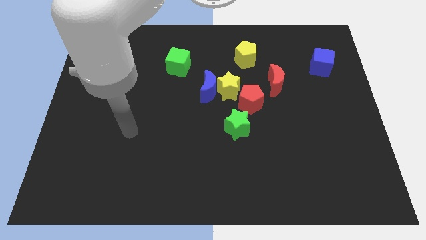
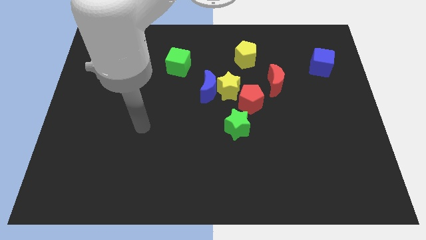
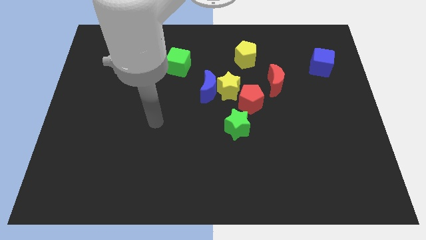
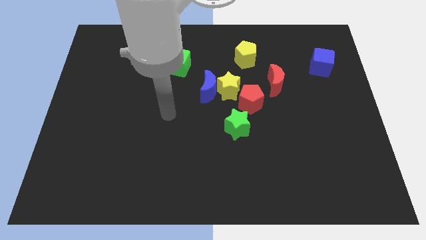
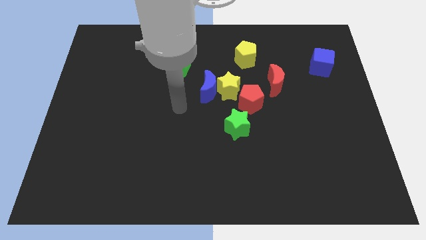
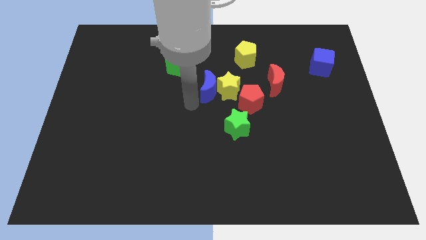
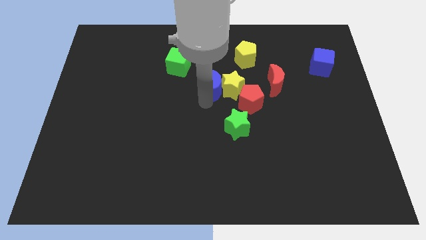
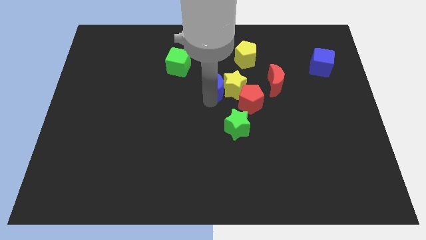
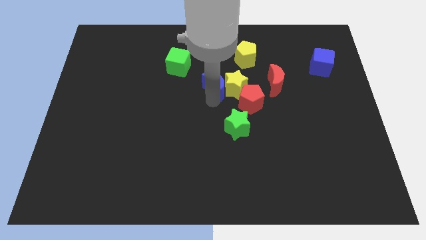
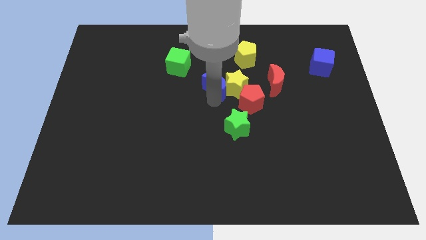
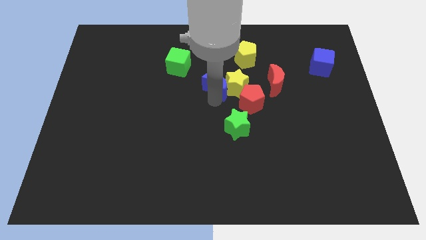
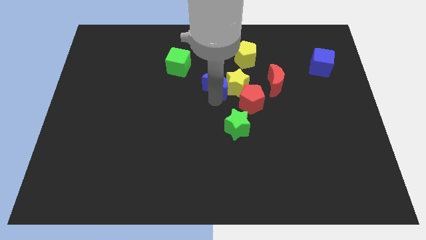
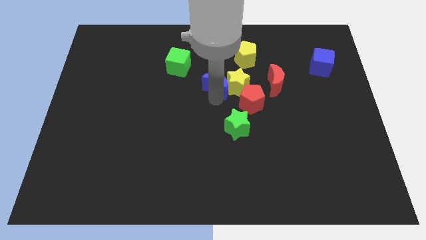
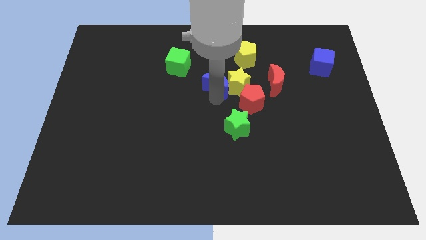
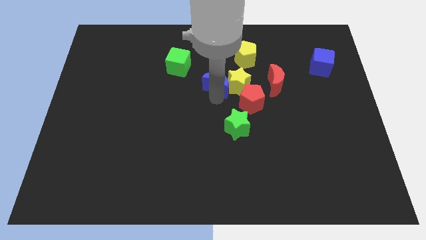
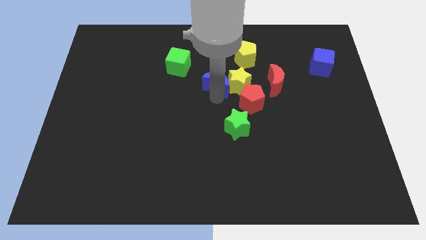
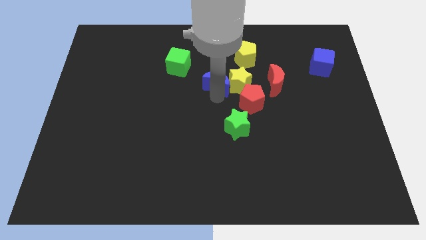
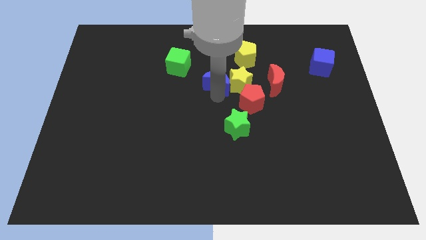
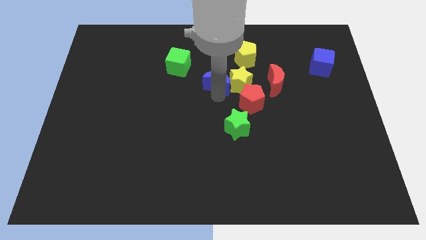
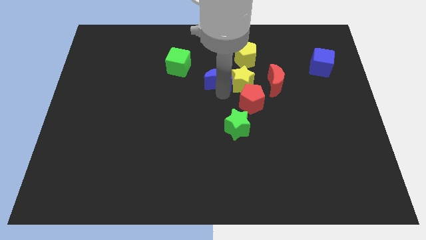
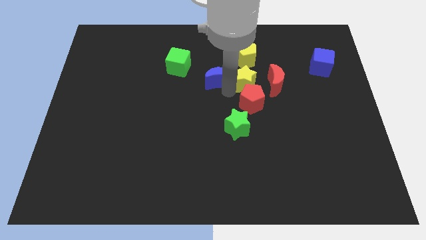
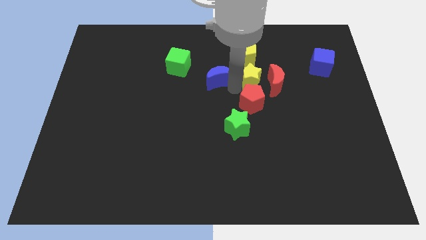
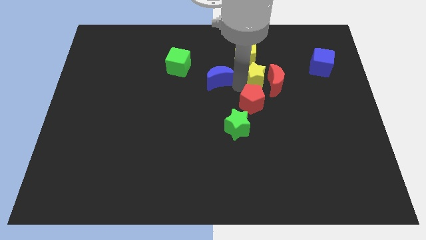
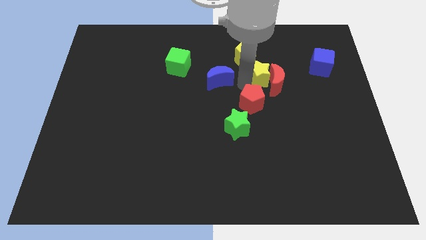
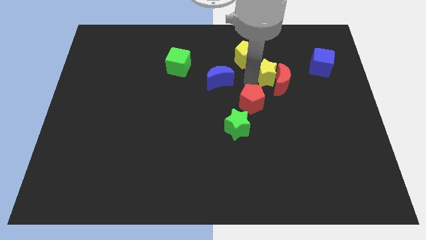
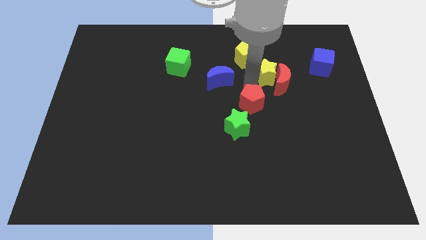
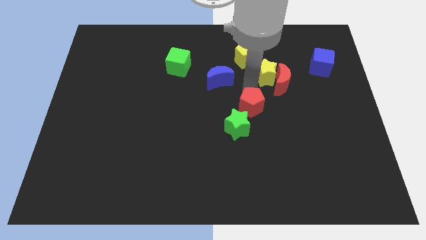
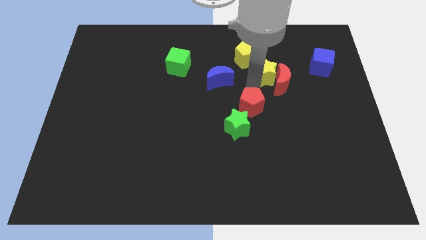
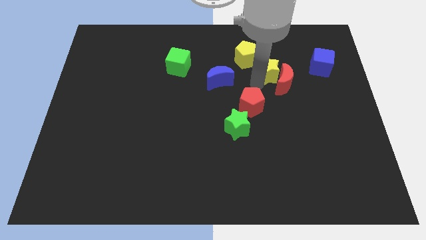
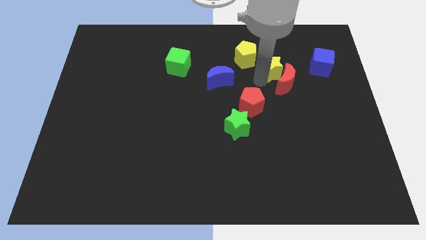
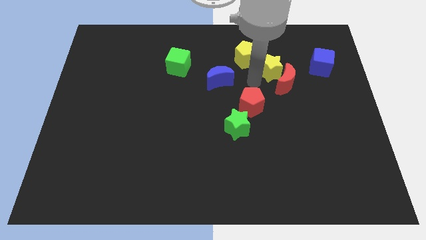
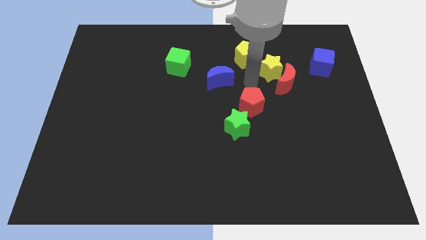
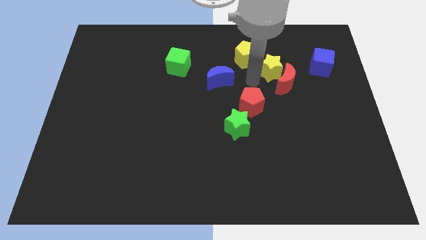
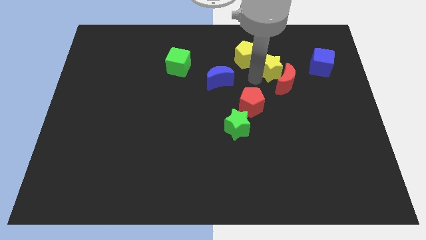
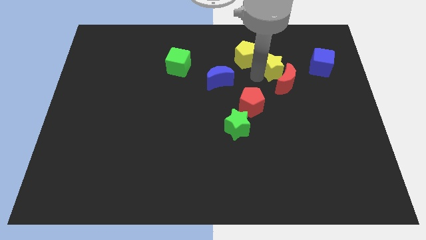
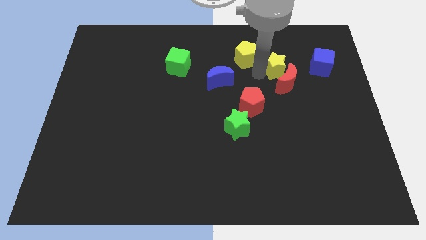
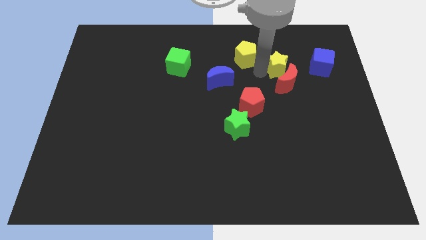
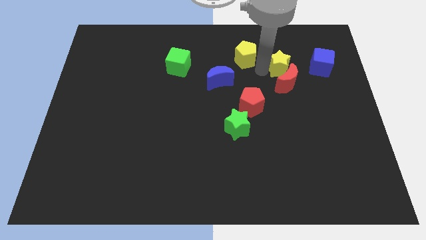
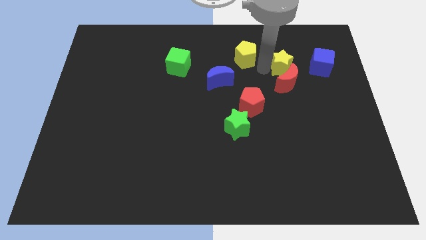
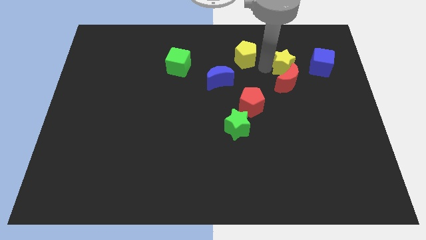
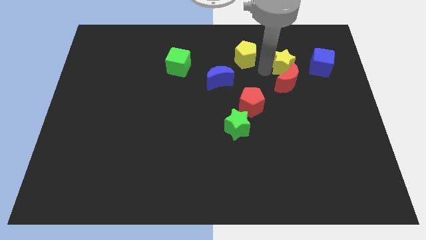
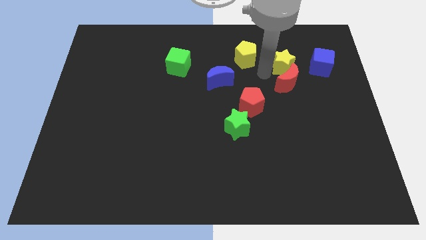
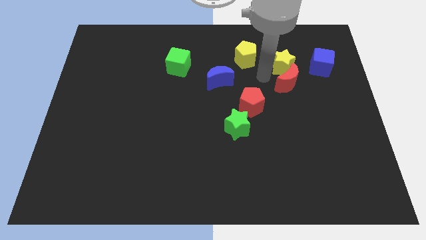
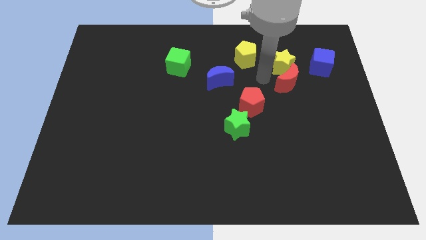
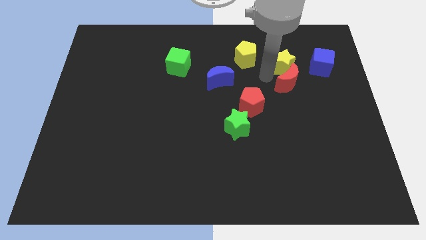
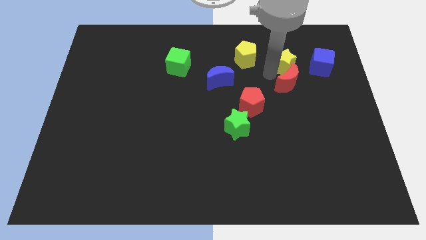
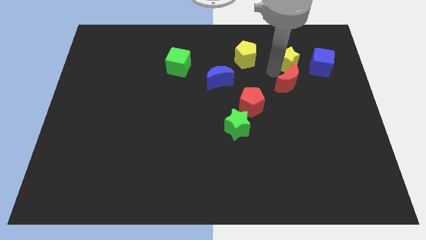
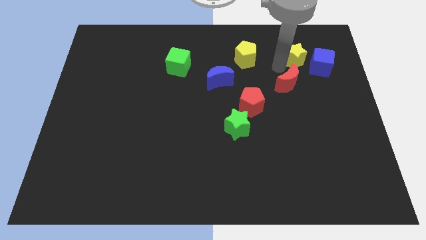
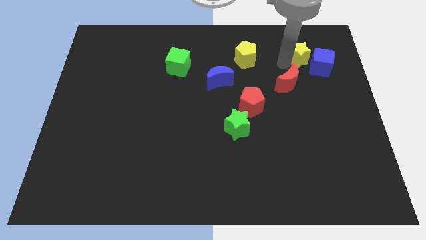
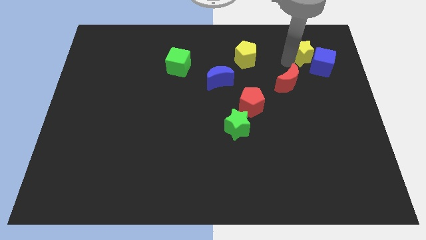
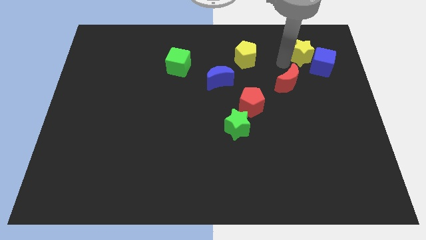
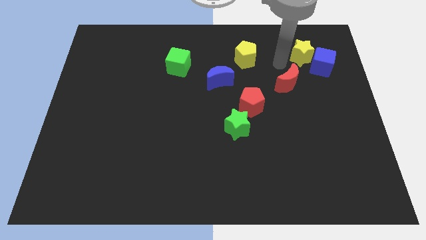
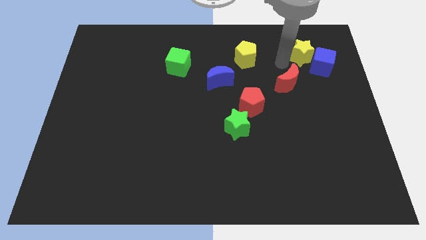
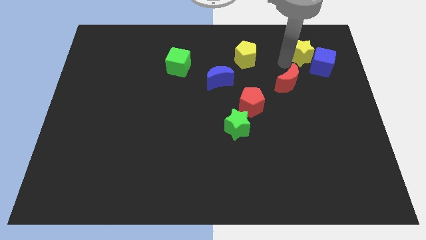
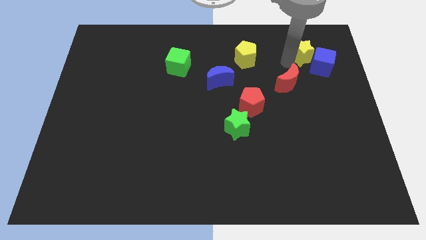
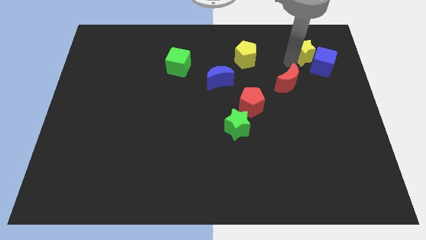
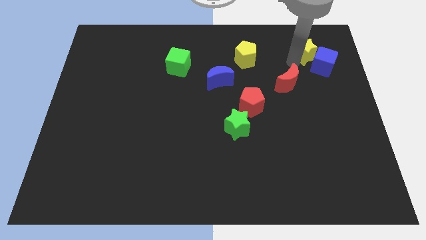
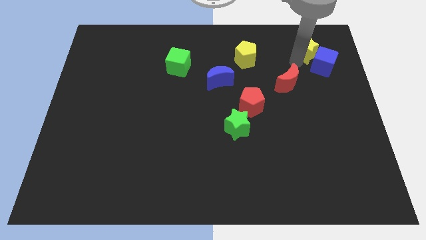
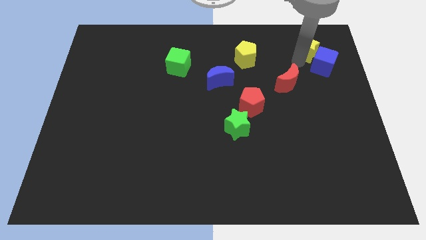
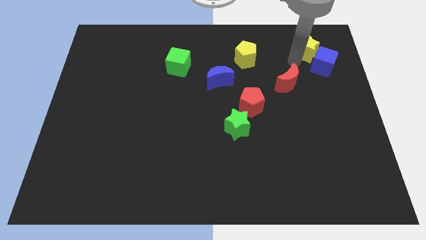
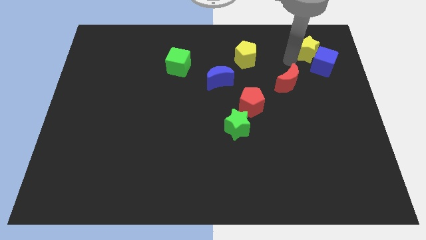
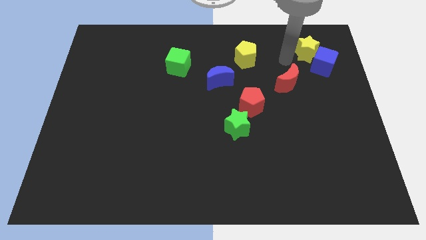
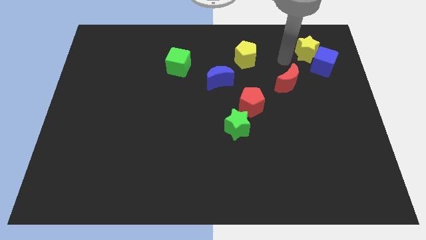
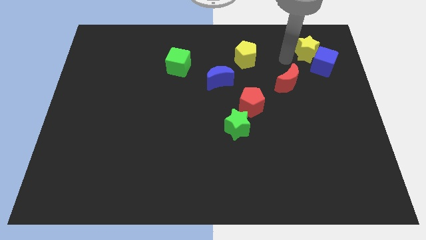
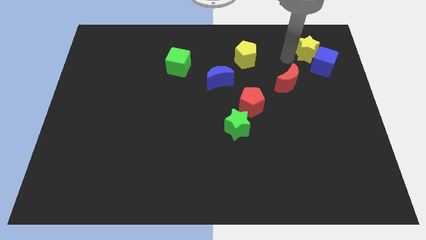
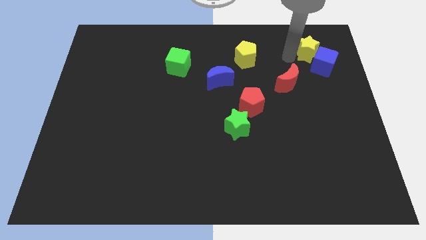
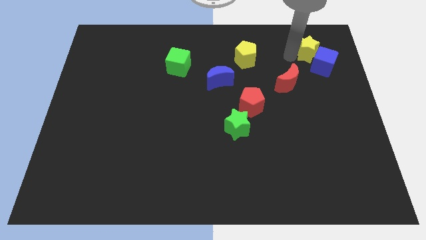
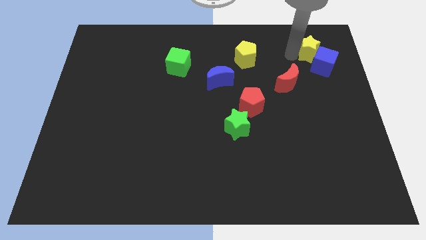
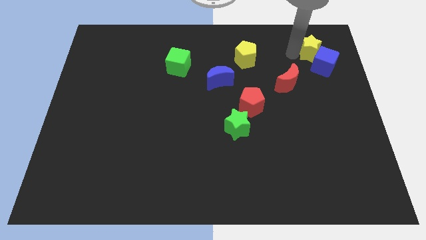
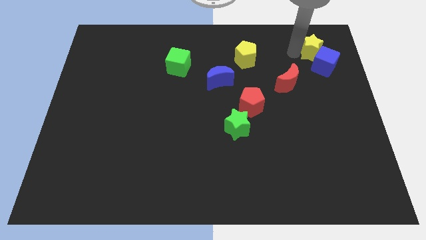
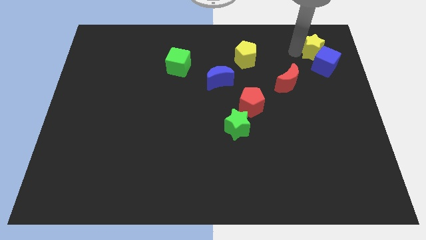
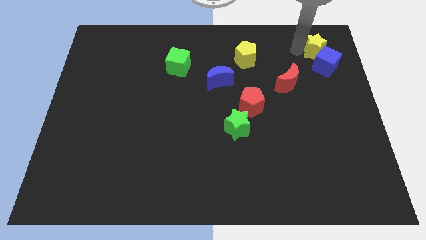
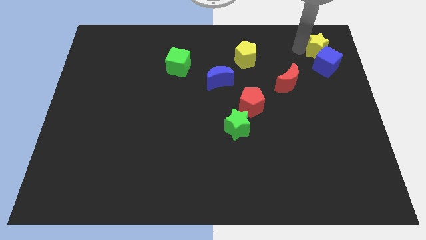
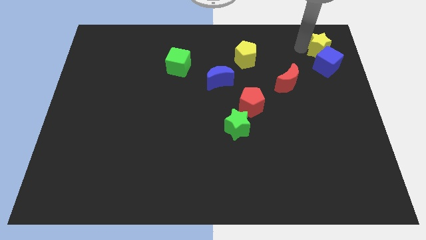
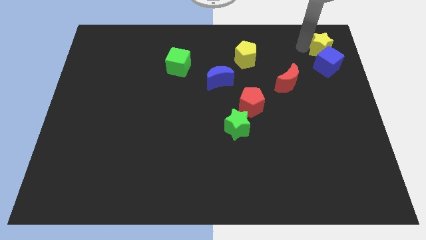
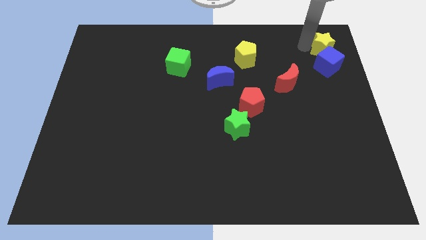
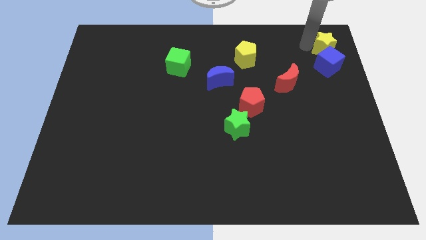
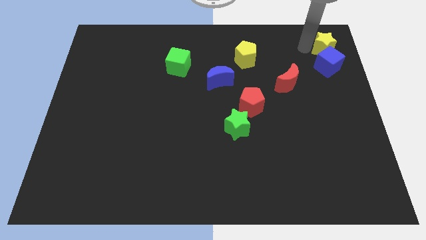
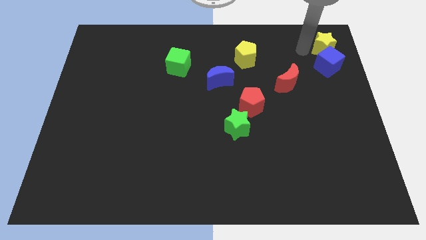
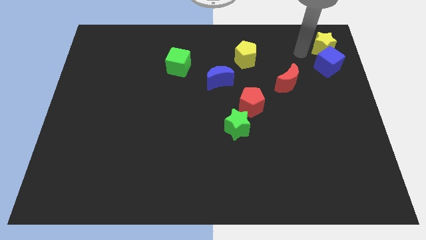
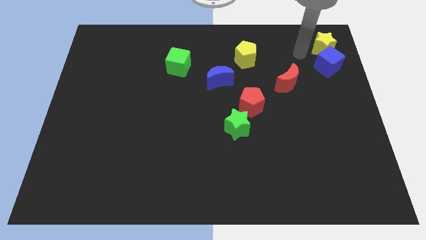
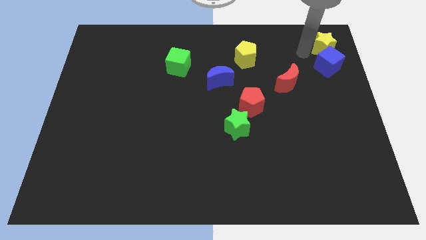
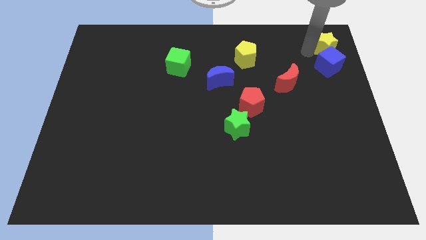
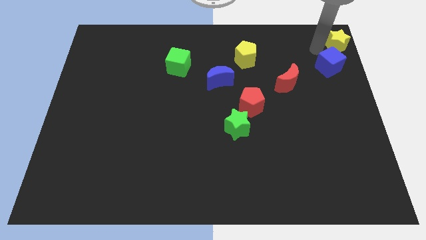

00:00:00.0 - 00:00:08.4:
push the yellow star to the top right
